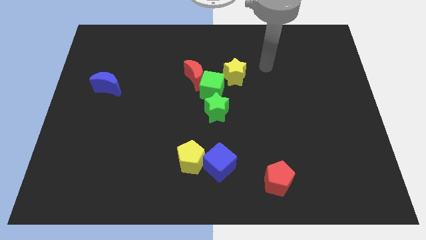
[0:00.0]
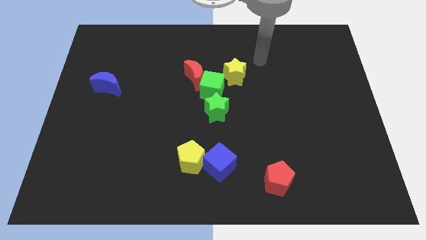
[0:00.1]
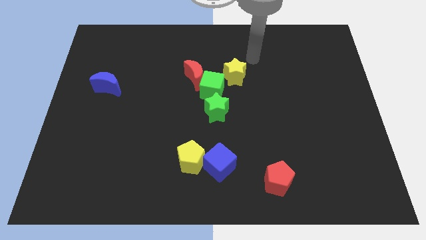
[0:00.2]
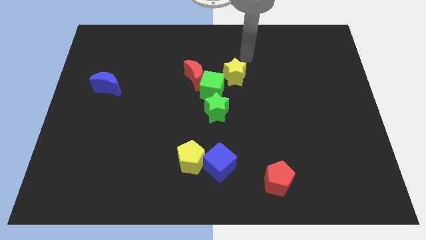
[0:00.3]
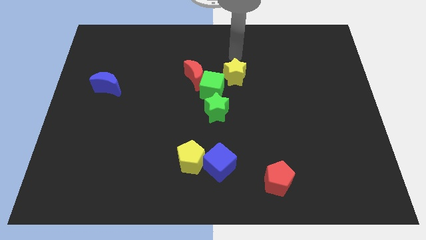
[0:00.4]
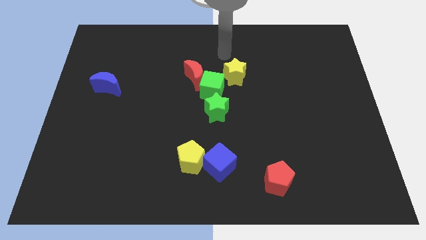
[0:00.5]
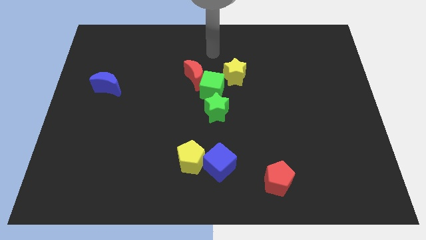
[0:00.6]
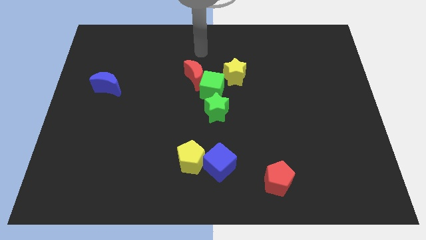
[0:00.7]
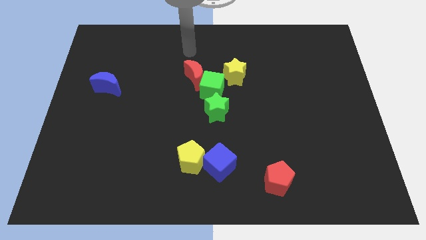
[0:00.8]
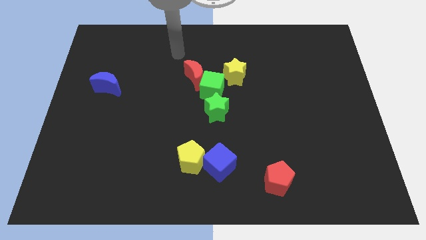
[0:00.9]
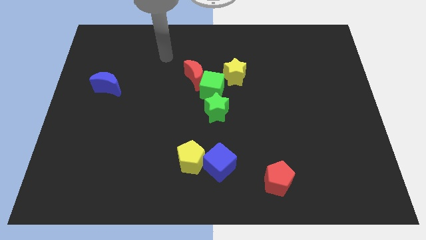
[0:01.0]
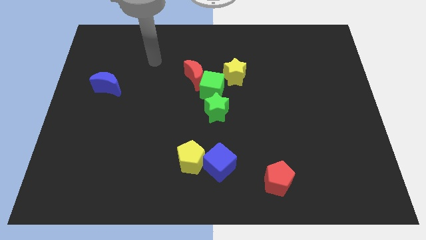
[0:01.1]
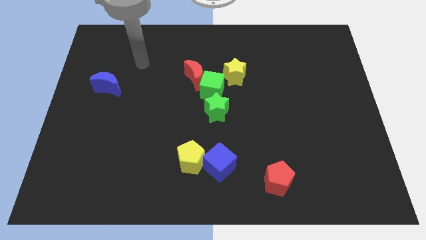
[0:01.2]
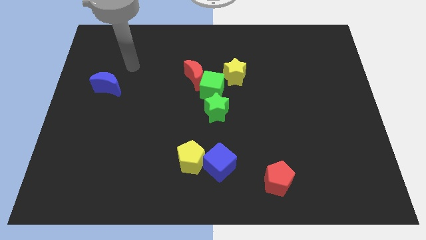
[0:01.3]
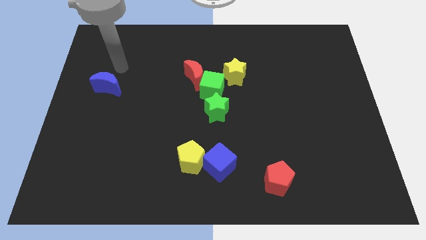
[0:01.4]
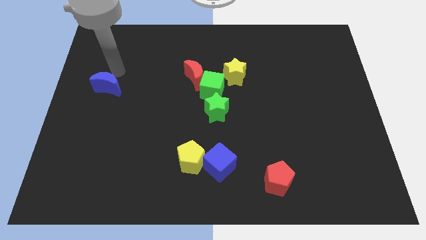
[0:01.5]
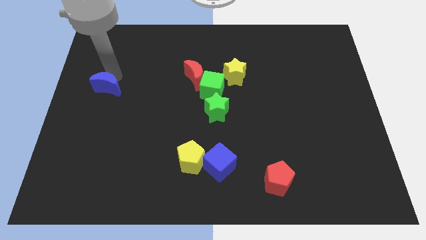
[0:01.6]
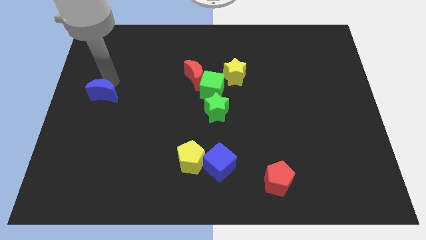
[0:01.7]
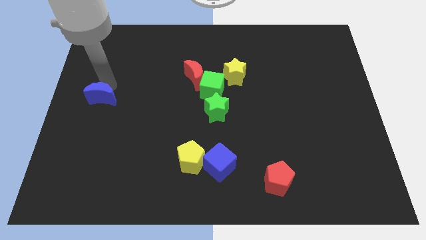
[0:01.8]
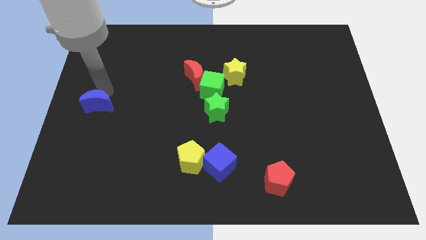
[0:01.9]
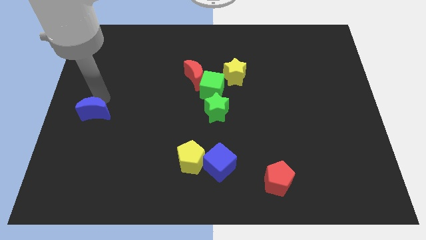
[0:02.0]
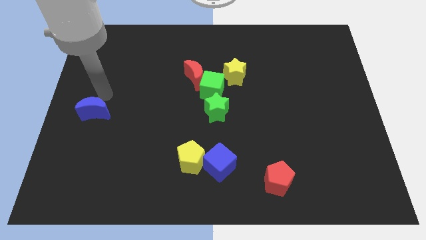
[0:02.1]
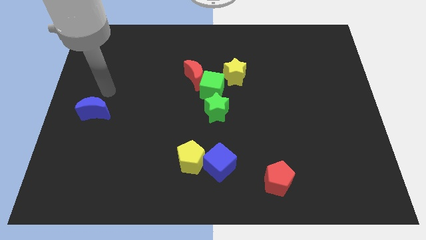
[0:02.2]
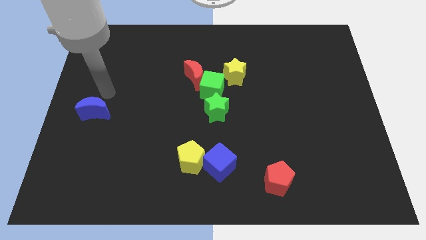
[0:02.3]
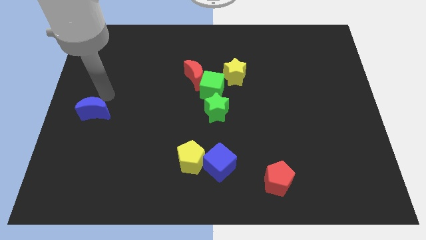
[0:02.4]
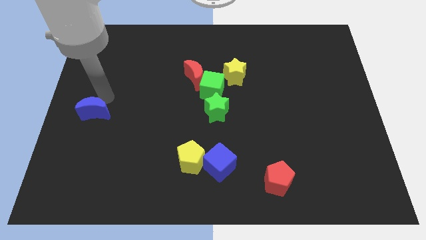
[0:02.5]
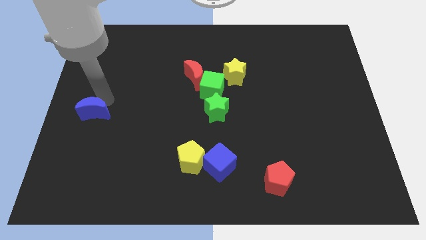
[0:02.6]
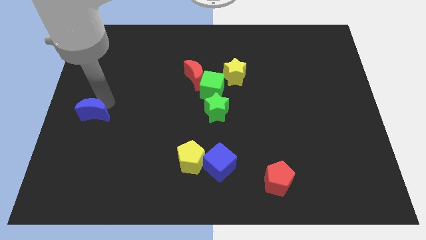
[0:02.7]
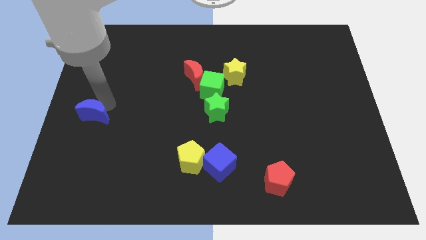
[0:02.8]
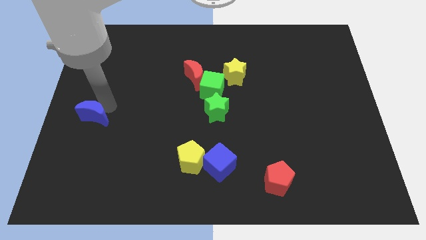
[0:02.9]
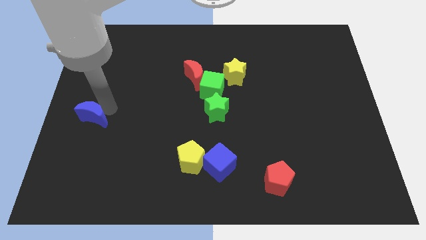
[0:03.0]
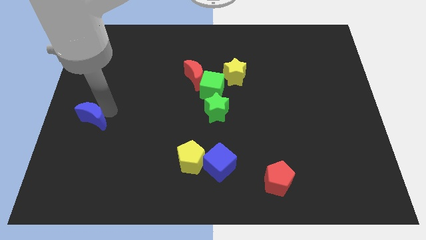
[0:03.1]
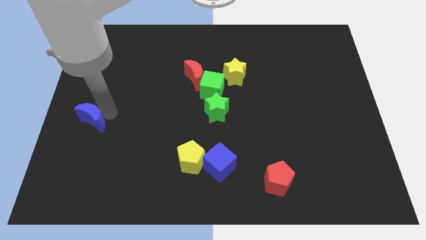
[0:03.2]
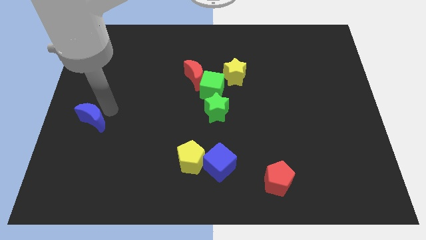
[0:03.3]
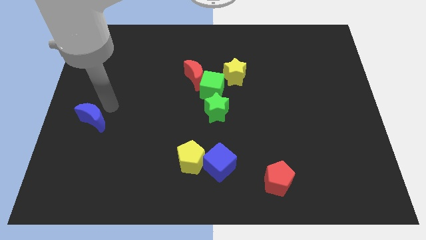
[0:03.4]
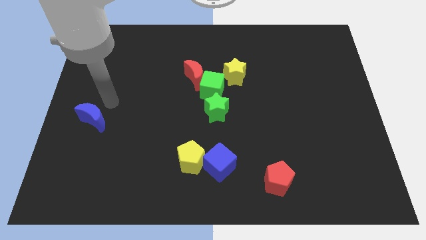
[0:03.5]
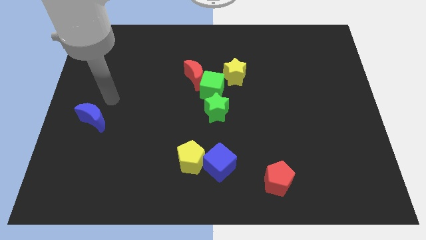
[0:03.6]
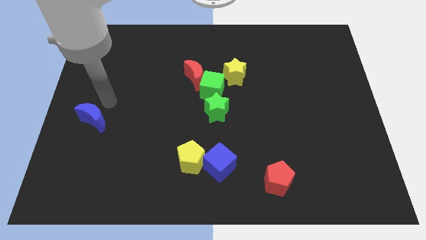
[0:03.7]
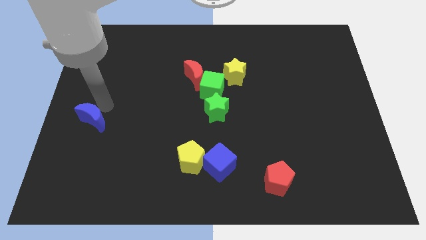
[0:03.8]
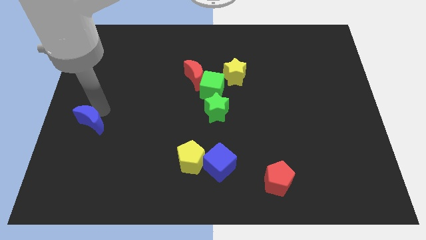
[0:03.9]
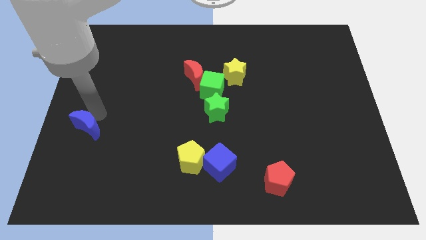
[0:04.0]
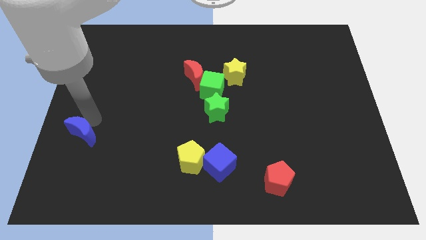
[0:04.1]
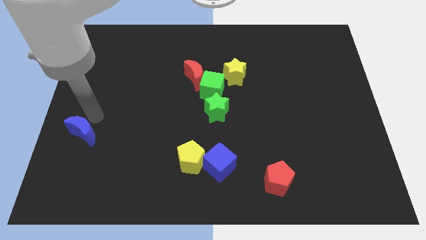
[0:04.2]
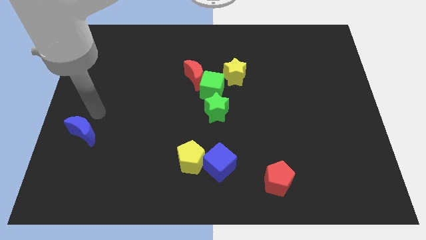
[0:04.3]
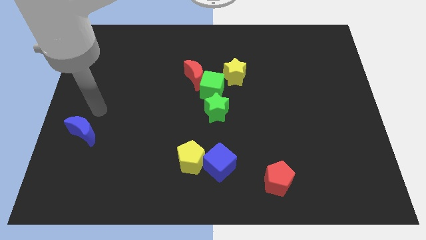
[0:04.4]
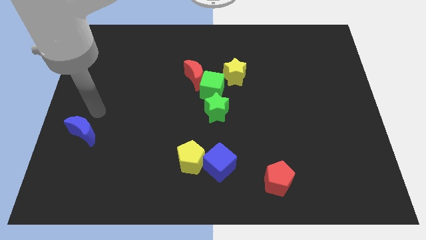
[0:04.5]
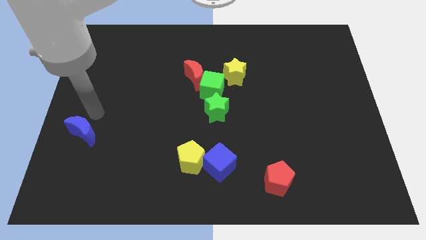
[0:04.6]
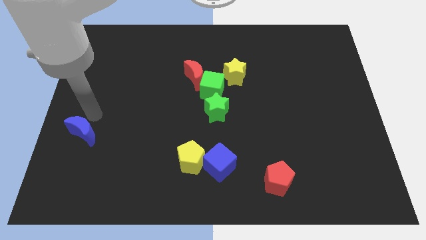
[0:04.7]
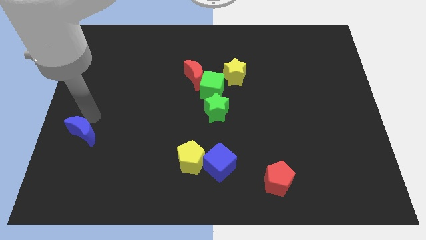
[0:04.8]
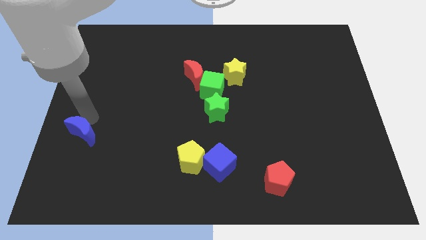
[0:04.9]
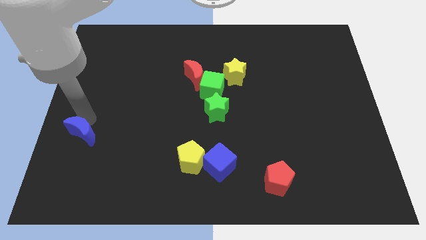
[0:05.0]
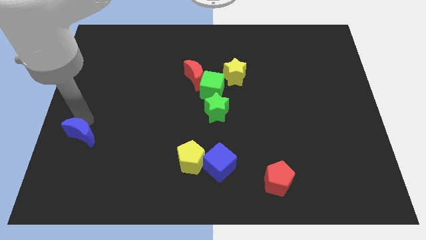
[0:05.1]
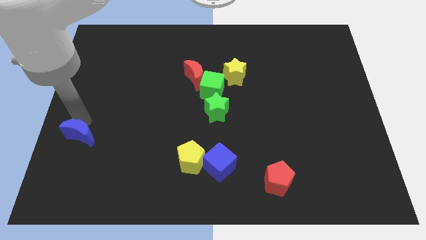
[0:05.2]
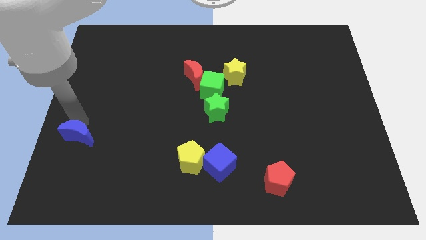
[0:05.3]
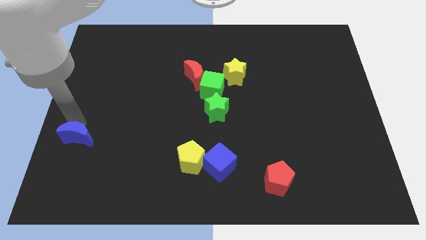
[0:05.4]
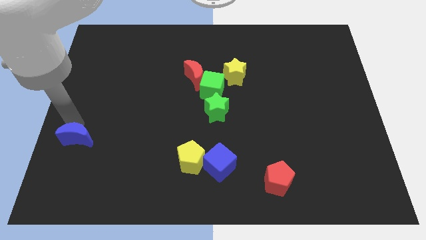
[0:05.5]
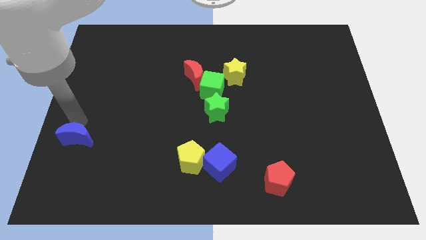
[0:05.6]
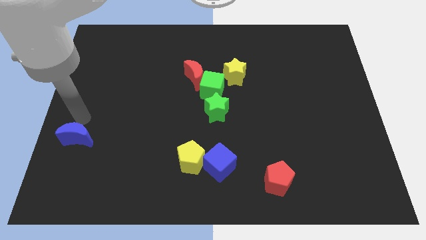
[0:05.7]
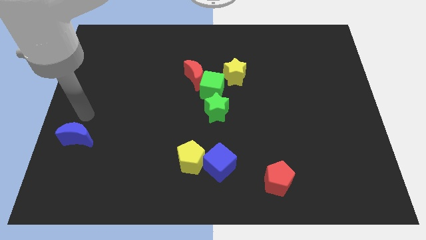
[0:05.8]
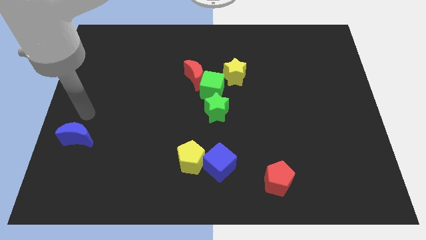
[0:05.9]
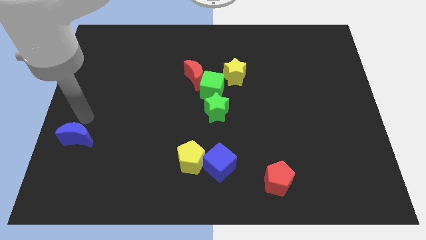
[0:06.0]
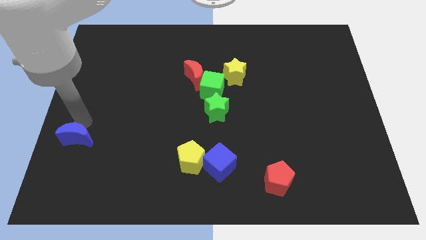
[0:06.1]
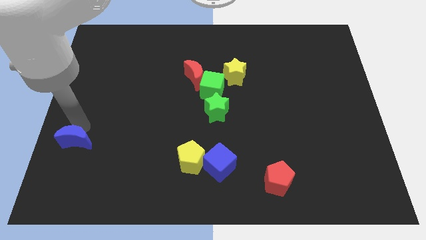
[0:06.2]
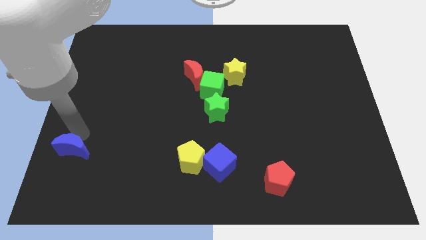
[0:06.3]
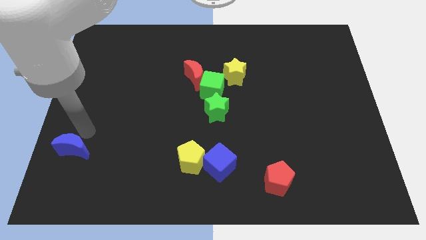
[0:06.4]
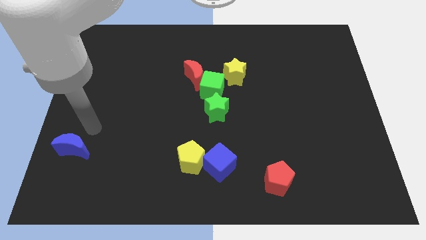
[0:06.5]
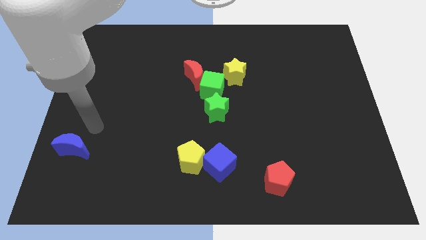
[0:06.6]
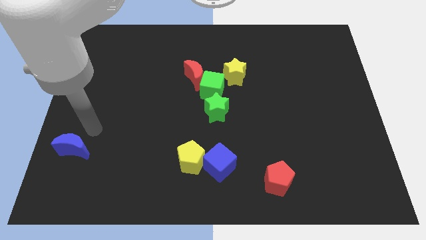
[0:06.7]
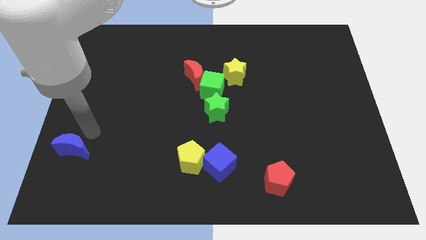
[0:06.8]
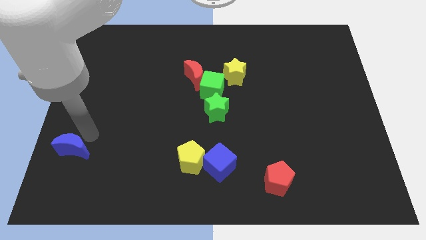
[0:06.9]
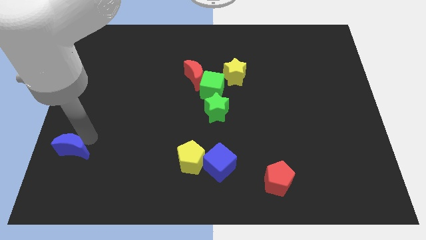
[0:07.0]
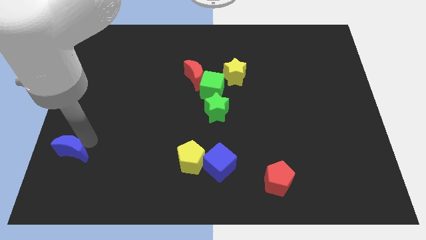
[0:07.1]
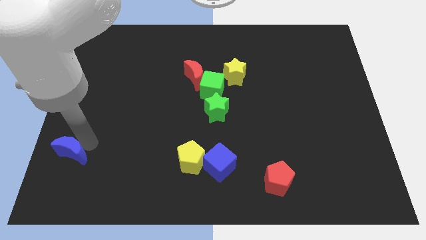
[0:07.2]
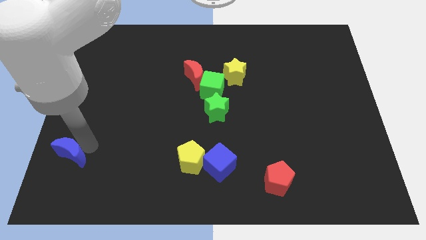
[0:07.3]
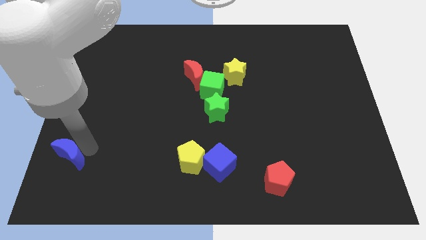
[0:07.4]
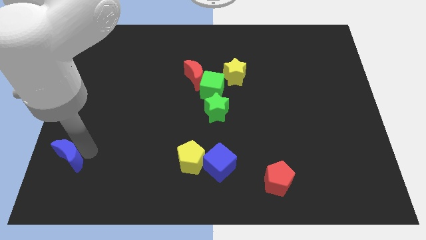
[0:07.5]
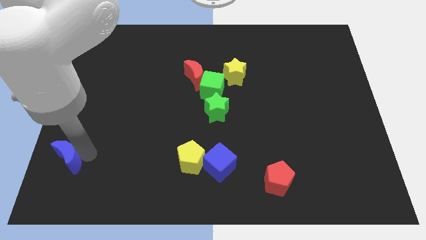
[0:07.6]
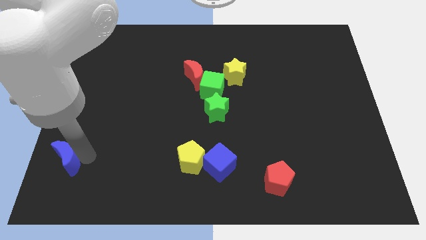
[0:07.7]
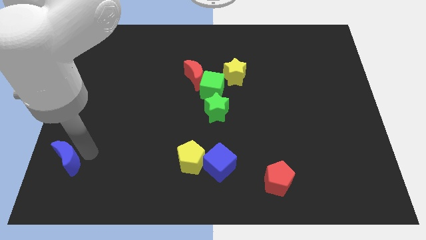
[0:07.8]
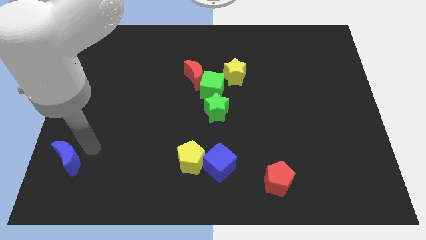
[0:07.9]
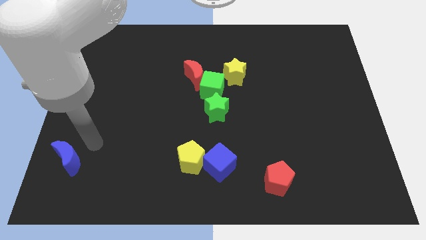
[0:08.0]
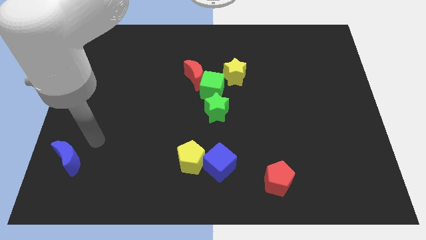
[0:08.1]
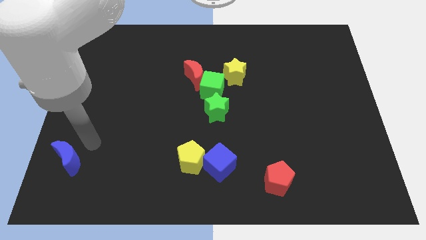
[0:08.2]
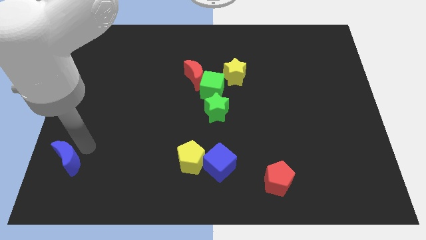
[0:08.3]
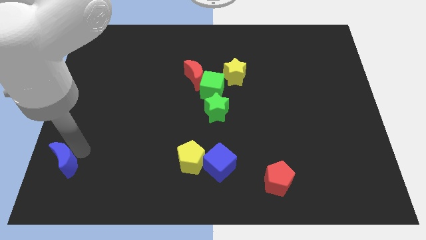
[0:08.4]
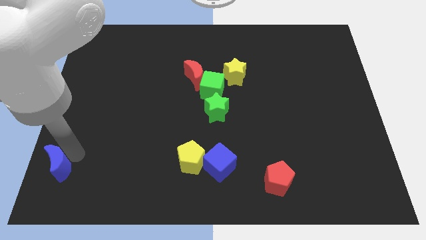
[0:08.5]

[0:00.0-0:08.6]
push the blue moon to the bottom left corner
